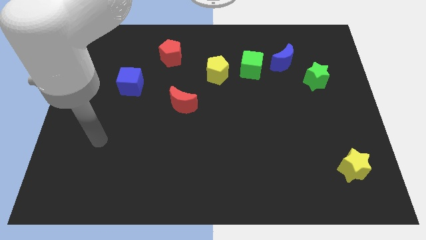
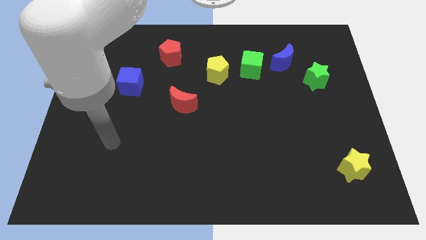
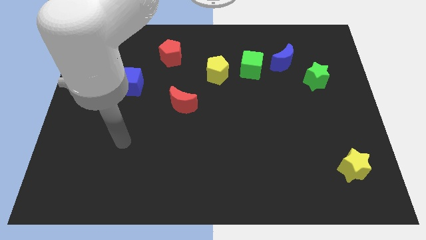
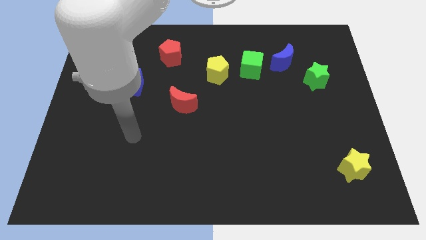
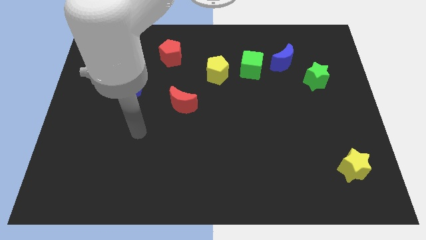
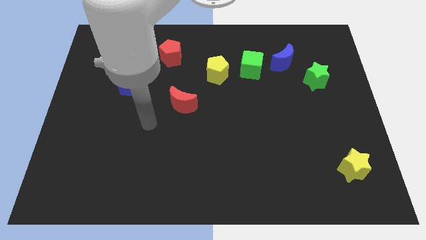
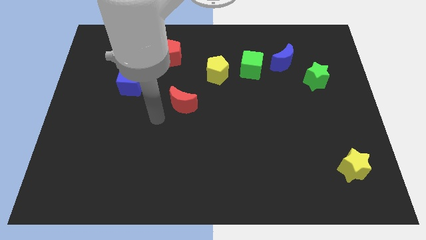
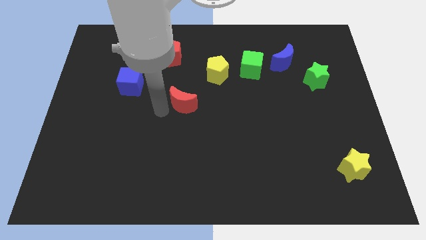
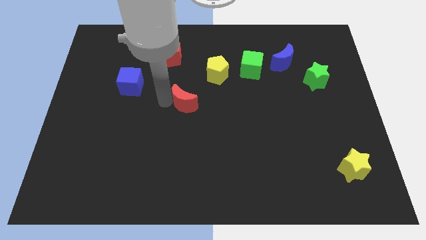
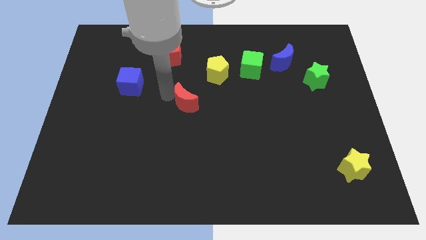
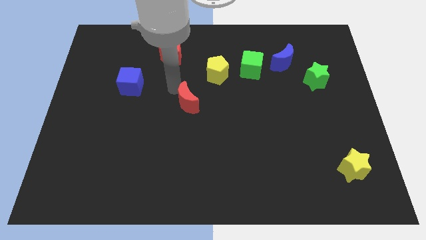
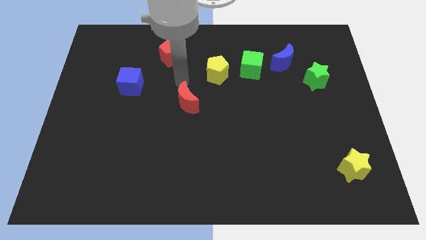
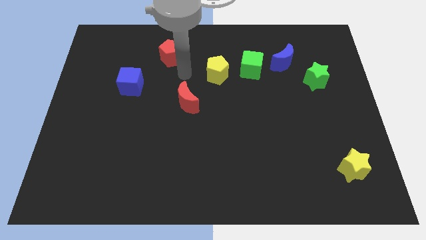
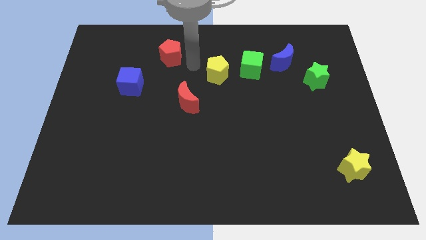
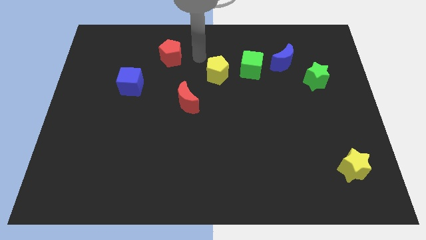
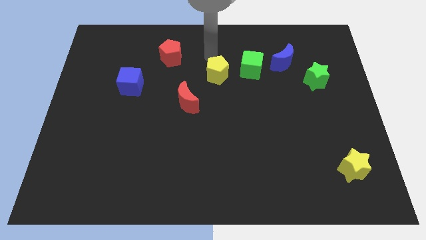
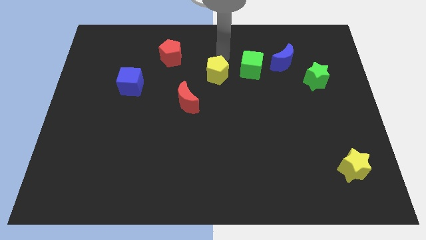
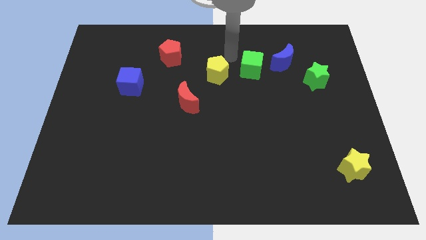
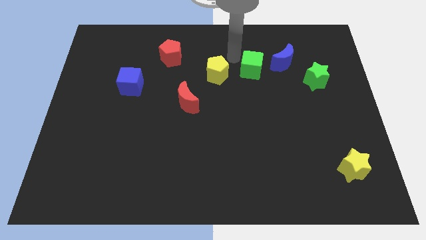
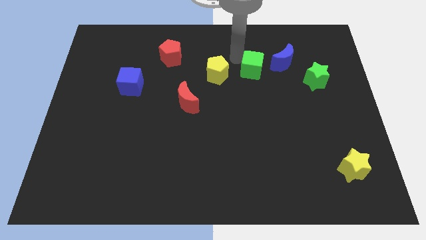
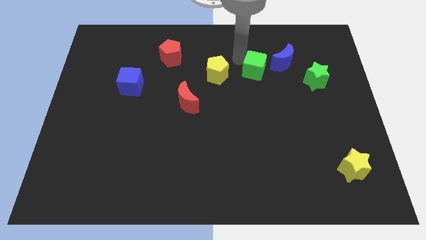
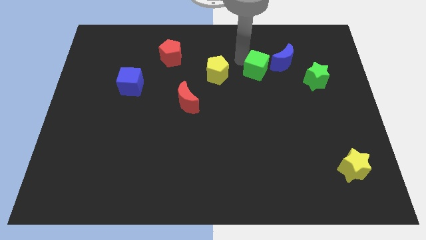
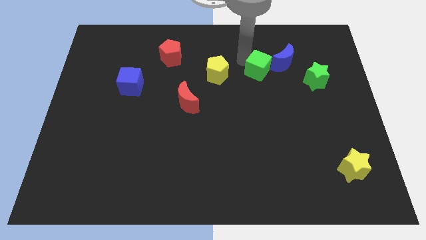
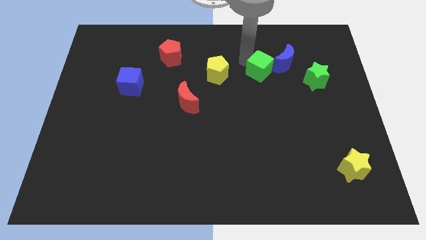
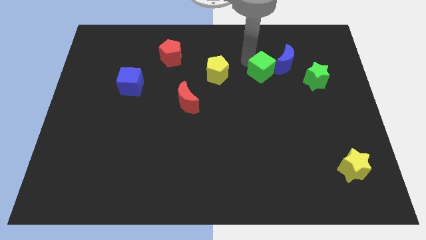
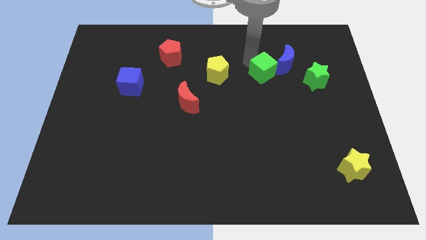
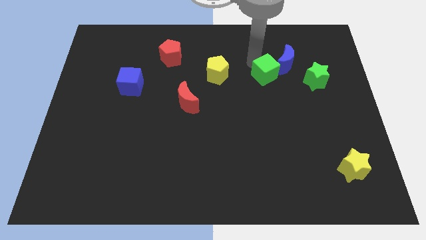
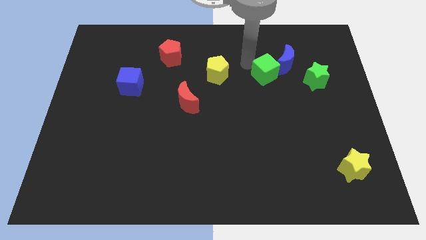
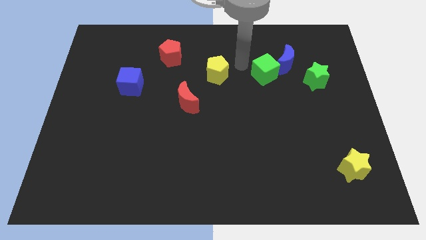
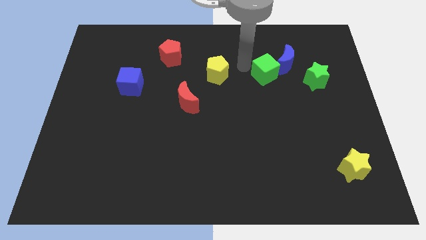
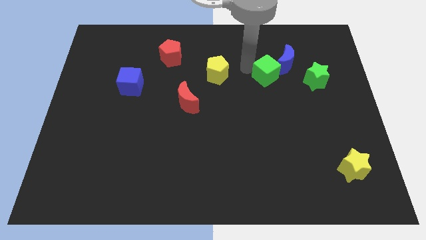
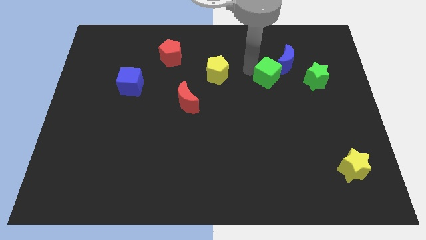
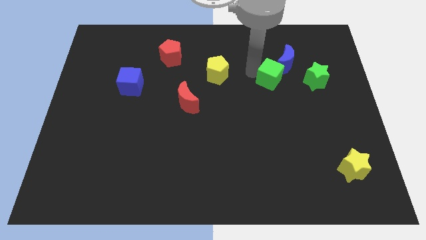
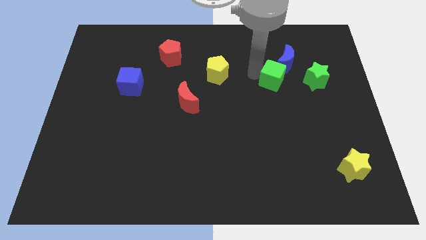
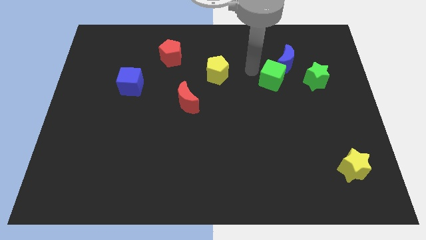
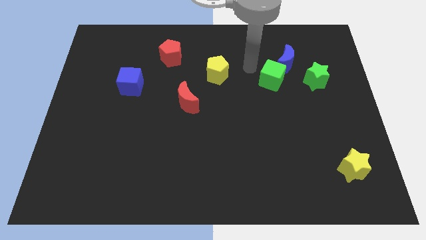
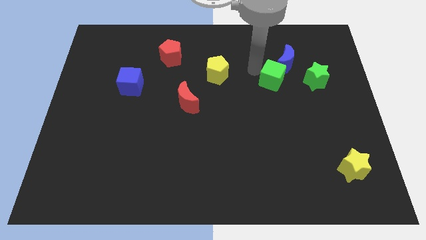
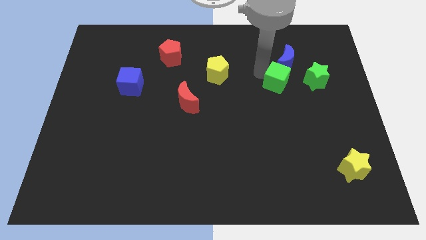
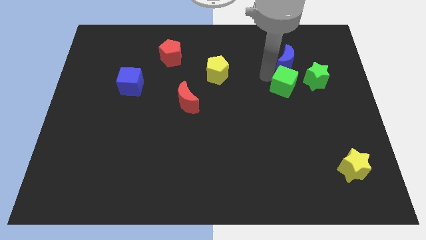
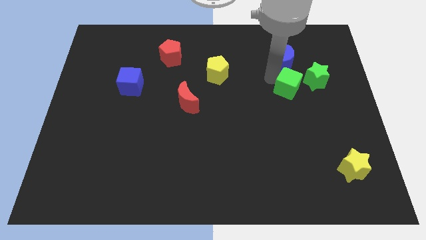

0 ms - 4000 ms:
pull the green cube apart from the blue moon and yellow pentagon

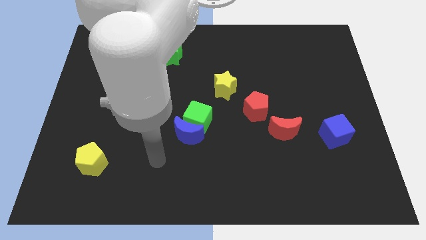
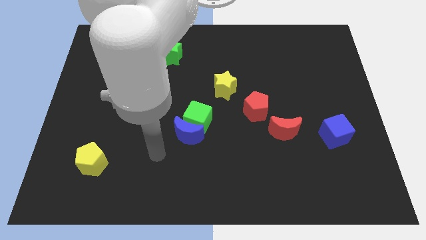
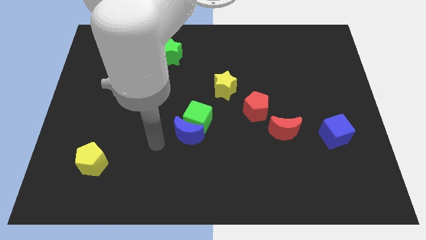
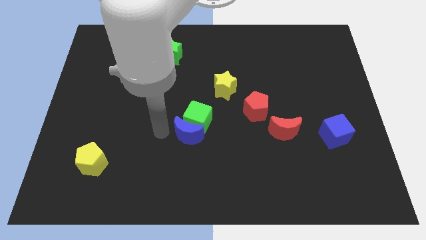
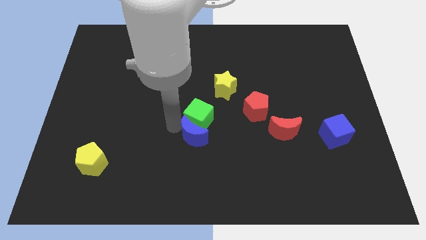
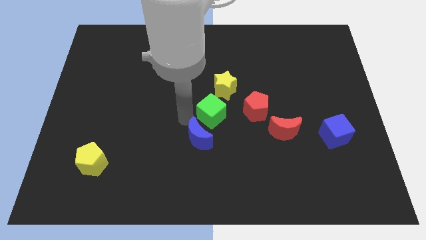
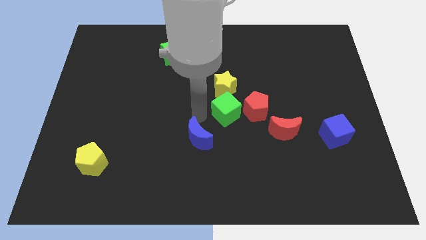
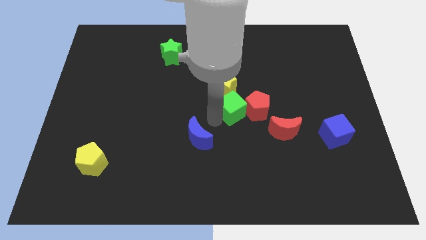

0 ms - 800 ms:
move the blue moon away from the green cube

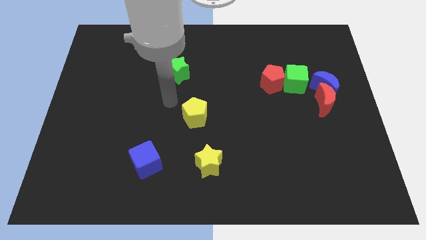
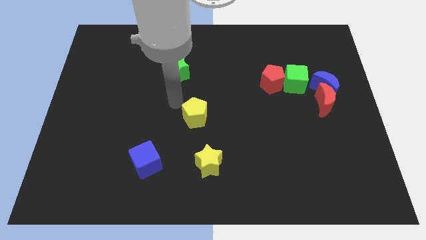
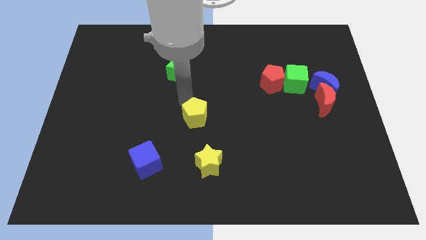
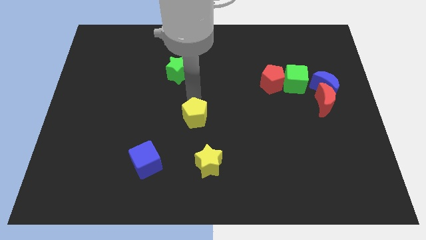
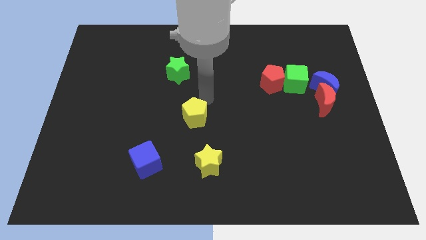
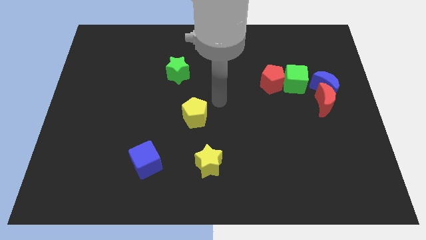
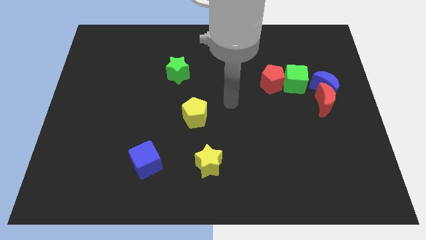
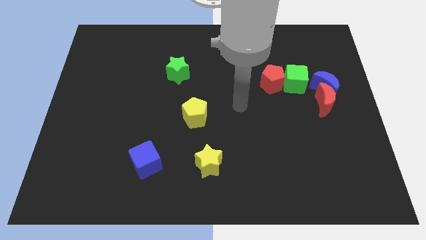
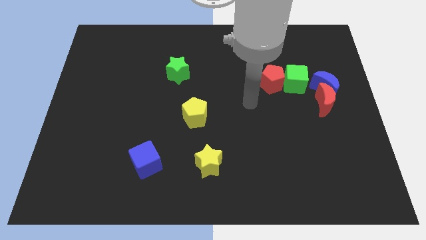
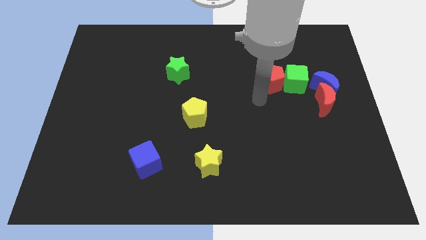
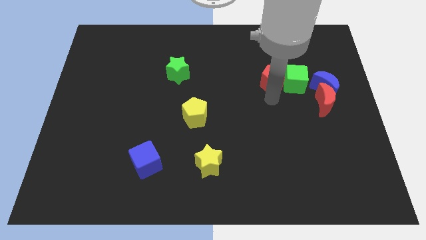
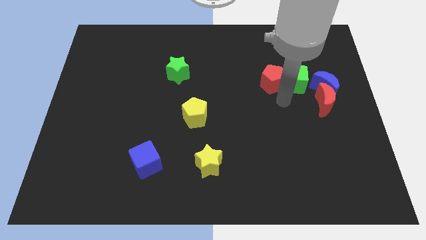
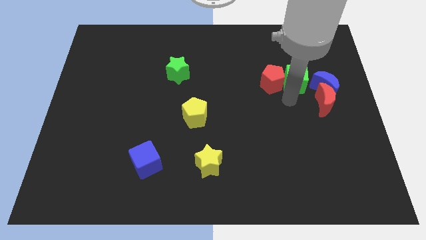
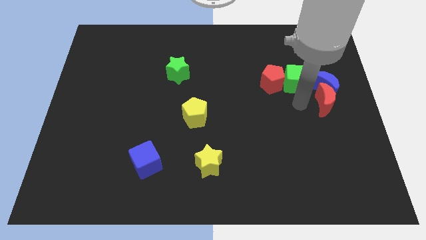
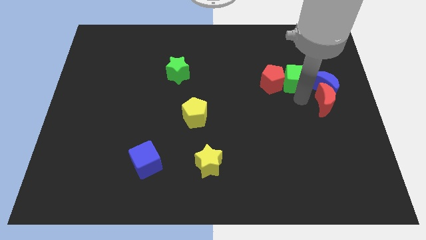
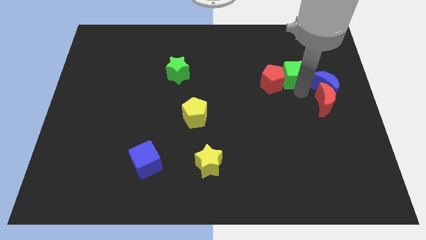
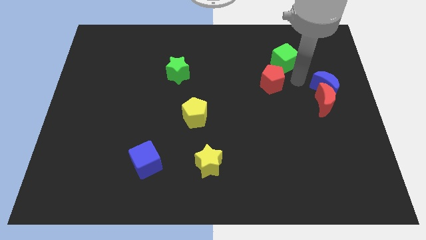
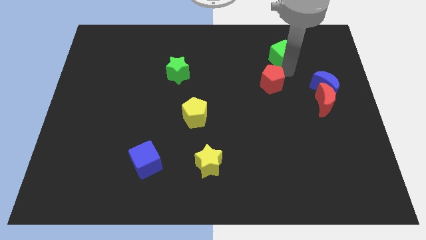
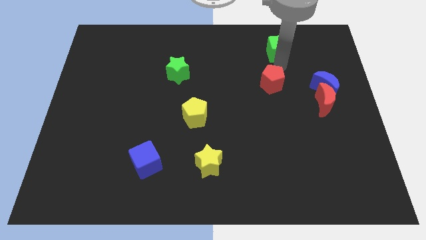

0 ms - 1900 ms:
pull the red pentagon apart from the green cube

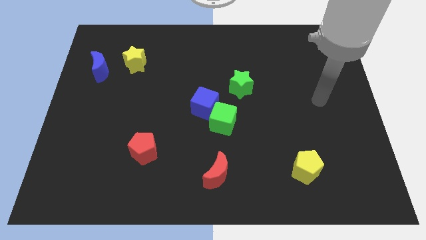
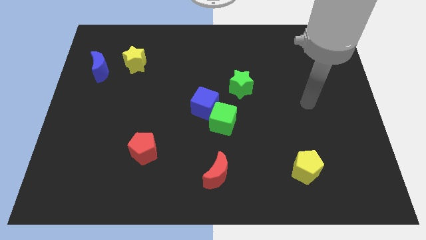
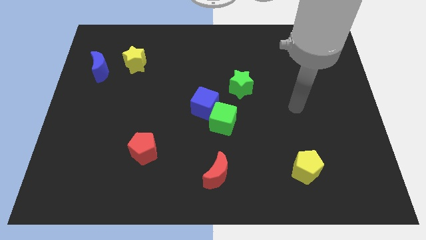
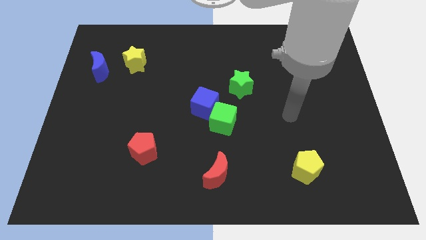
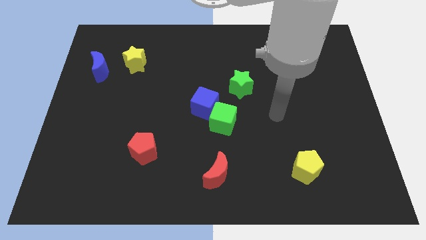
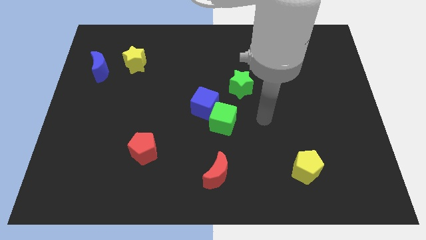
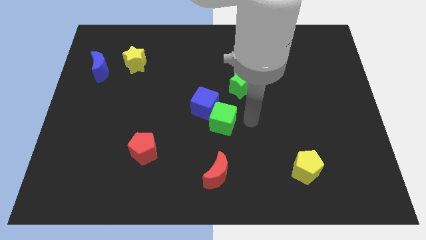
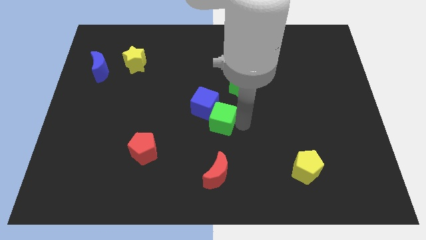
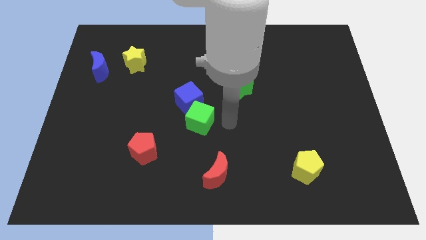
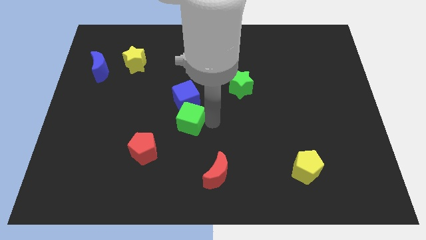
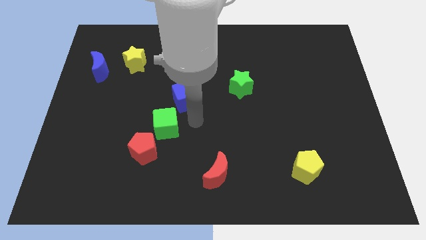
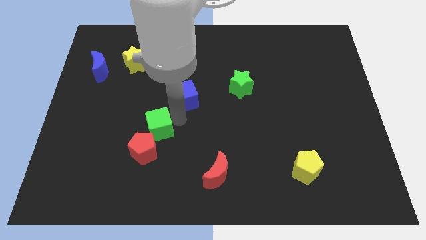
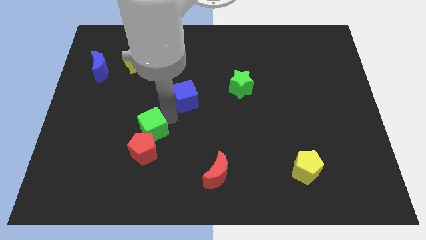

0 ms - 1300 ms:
separate the blue cube from the green cube

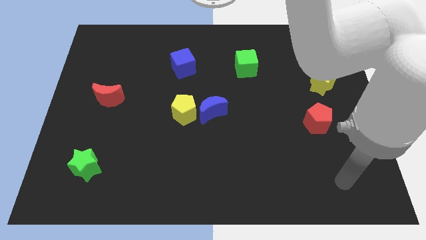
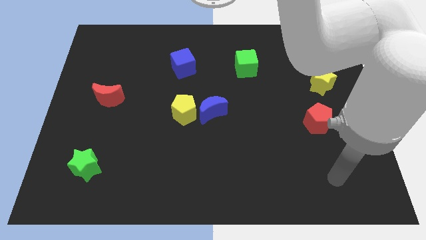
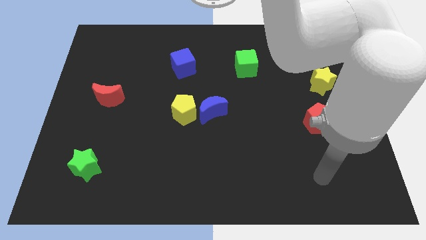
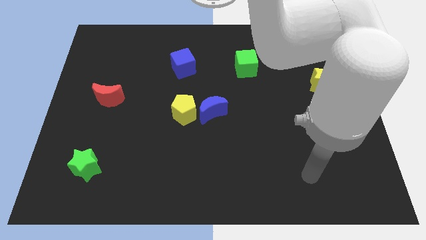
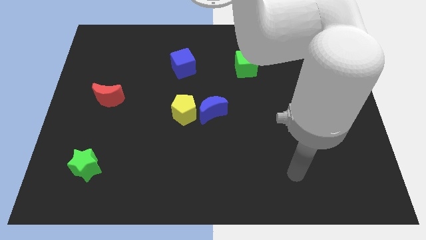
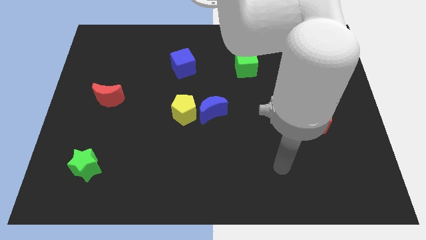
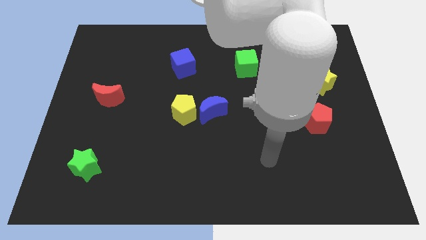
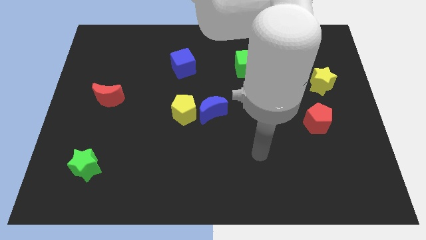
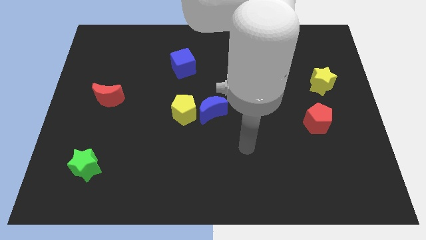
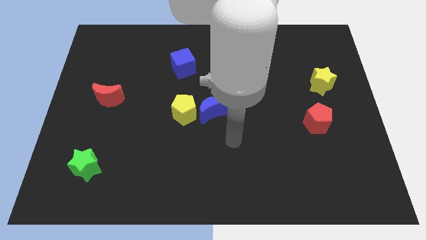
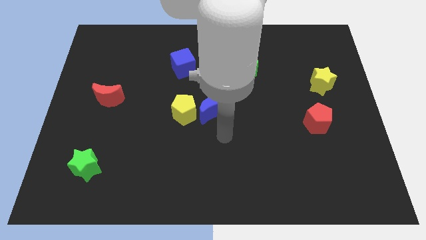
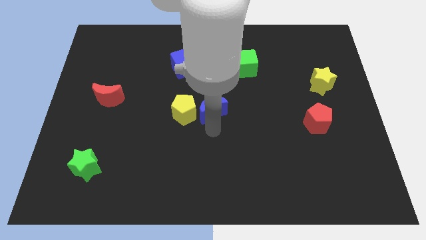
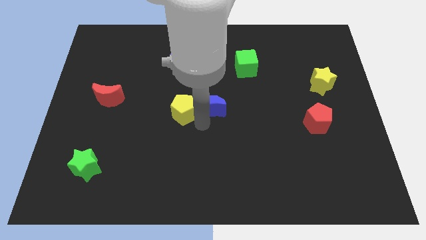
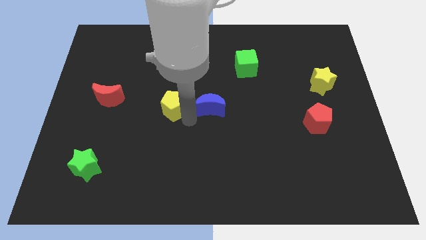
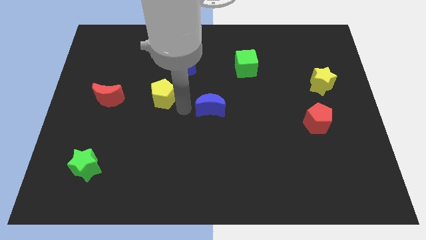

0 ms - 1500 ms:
pull the blue moon apart from the yellow pentagon
